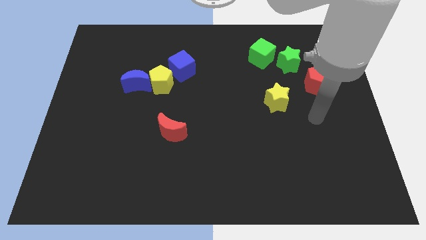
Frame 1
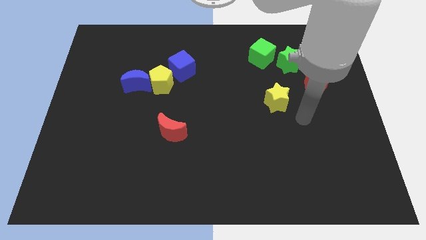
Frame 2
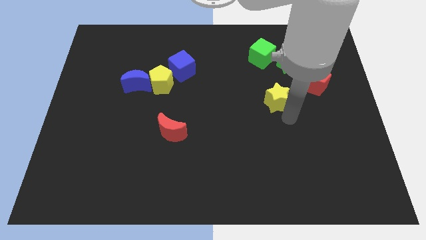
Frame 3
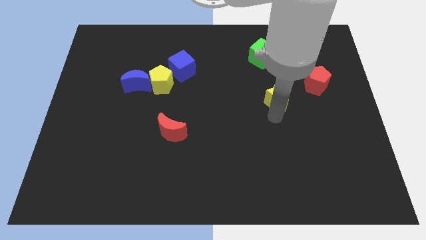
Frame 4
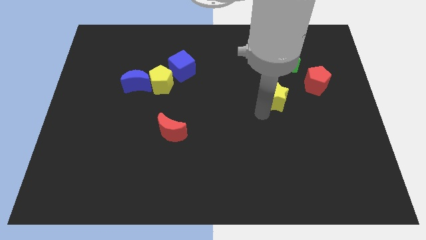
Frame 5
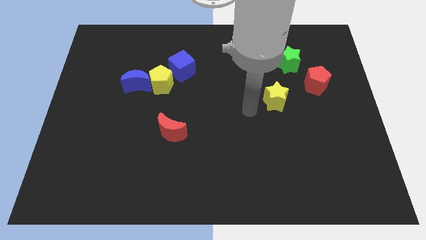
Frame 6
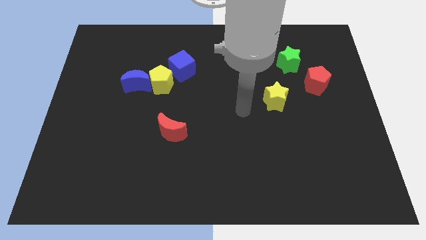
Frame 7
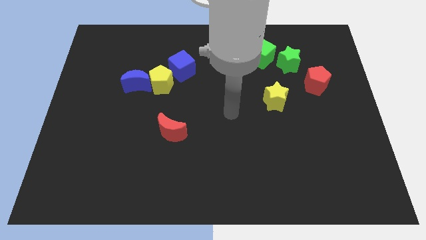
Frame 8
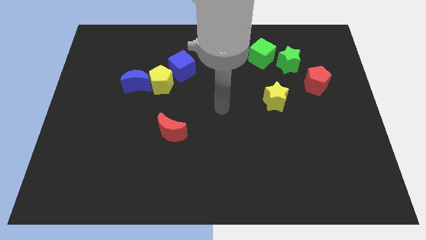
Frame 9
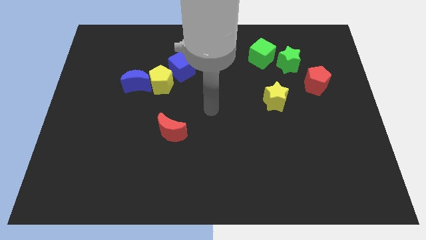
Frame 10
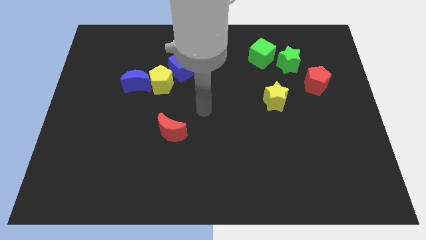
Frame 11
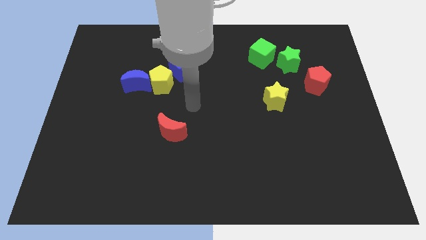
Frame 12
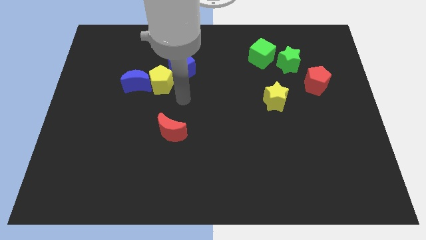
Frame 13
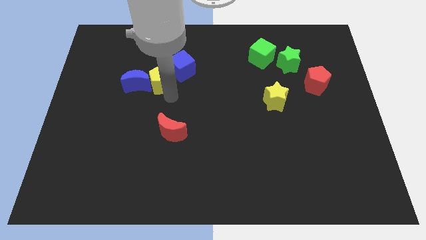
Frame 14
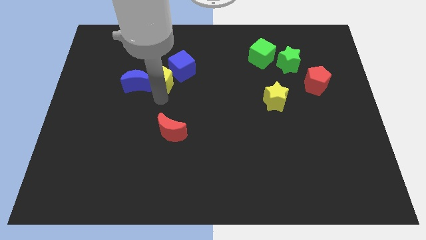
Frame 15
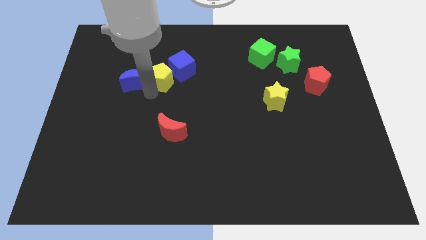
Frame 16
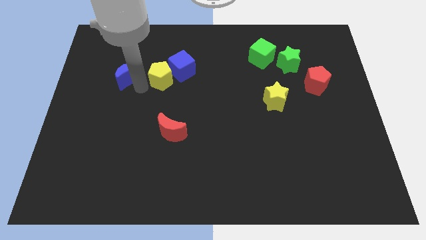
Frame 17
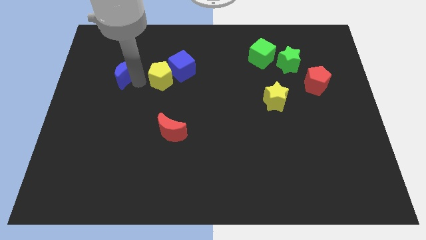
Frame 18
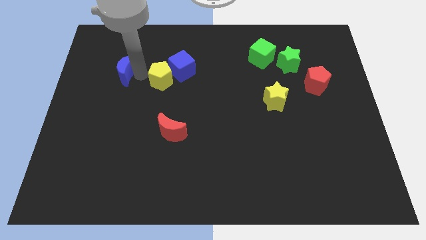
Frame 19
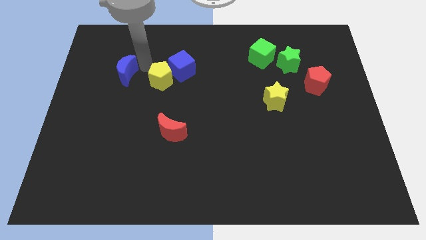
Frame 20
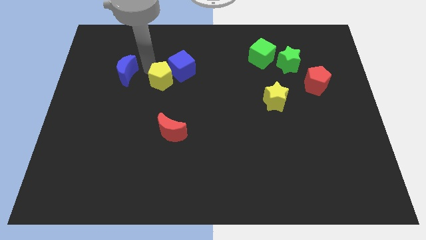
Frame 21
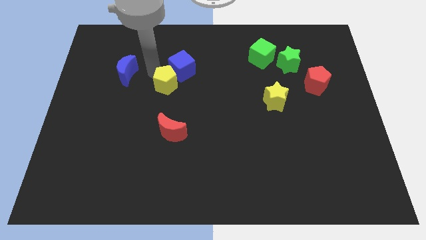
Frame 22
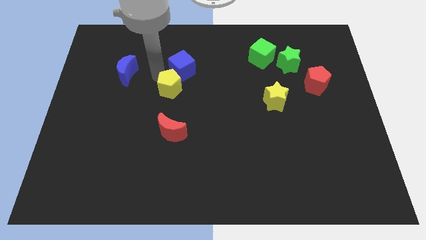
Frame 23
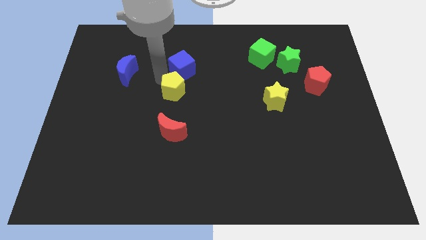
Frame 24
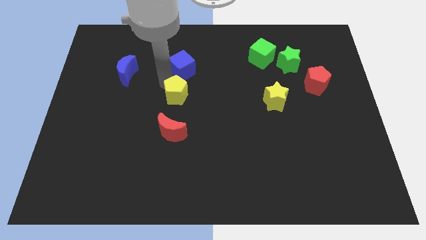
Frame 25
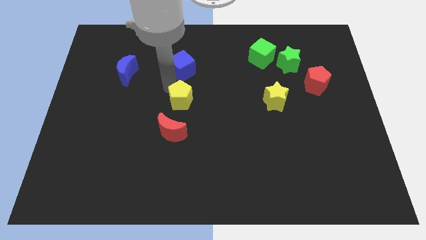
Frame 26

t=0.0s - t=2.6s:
slightly slide the yellow pentagon down and then to the right

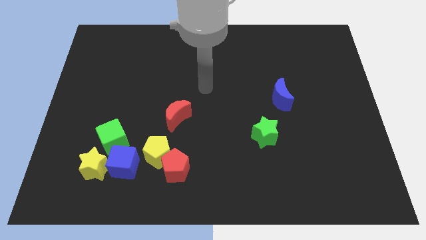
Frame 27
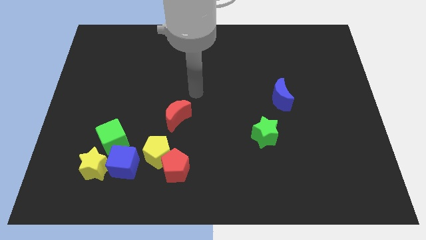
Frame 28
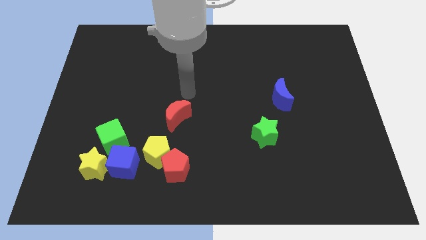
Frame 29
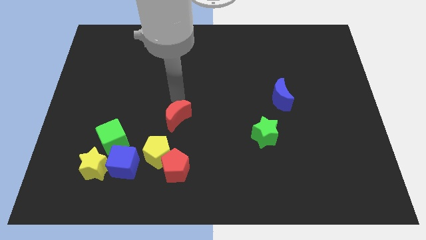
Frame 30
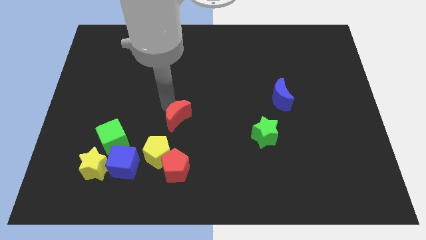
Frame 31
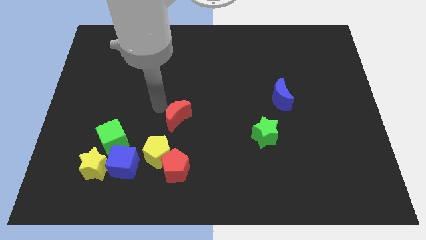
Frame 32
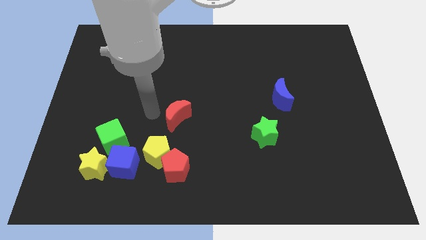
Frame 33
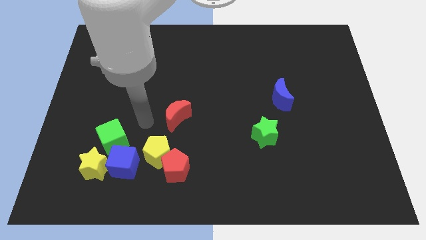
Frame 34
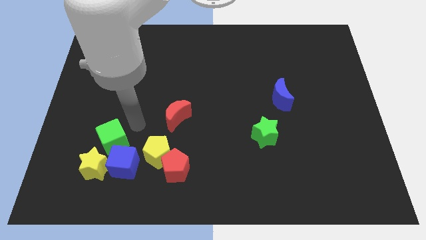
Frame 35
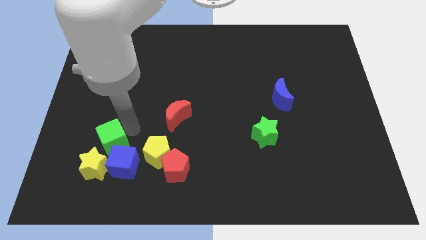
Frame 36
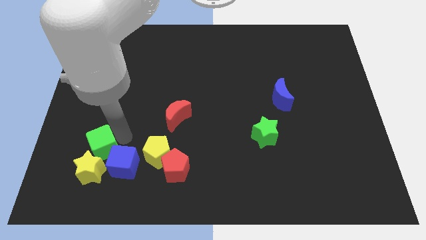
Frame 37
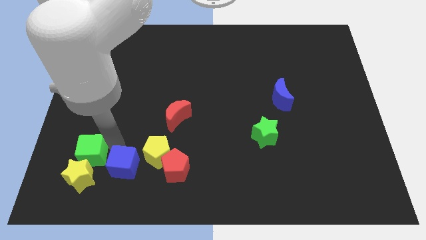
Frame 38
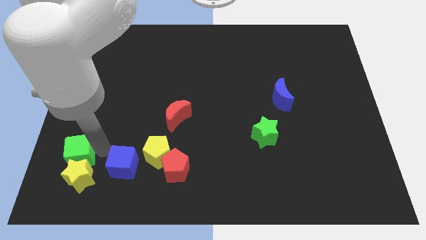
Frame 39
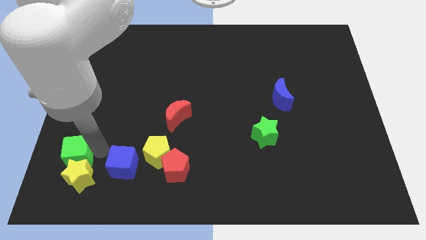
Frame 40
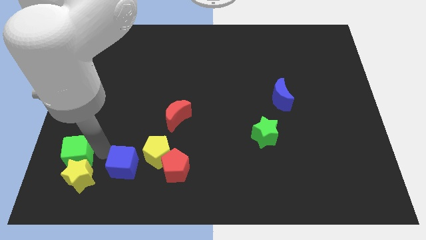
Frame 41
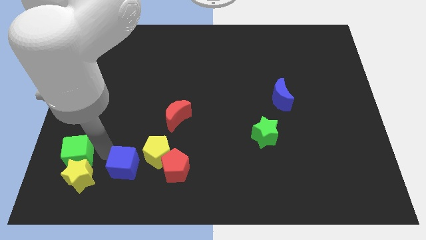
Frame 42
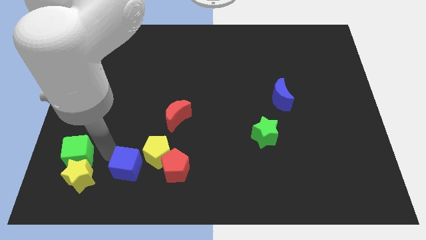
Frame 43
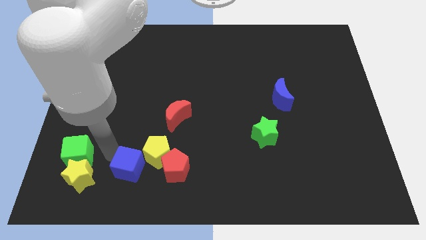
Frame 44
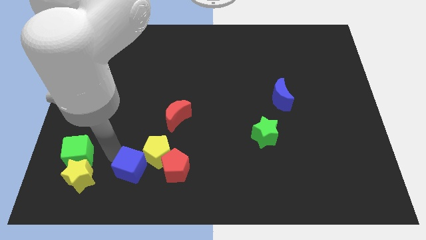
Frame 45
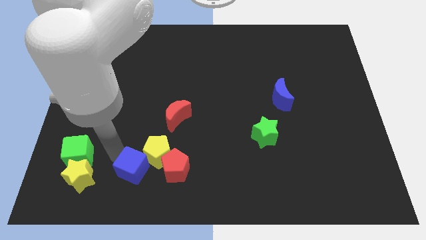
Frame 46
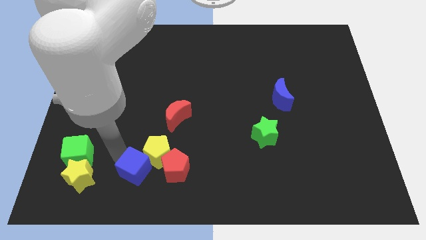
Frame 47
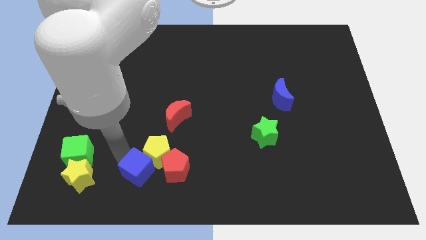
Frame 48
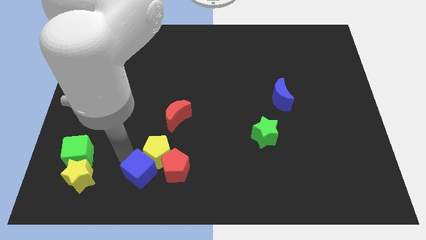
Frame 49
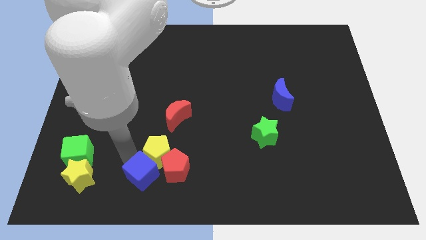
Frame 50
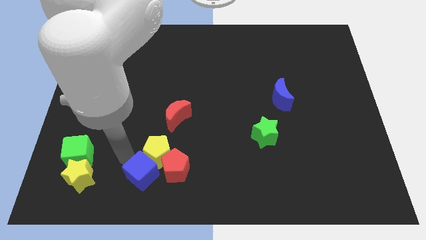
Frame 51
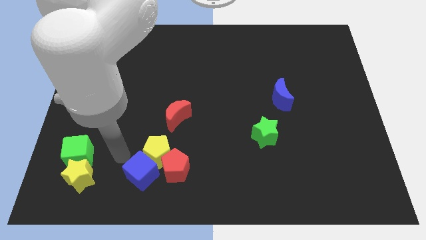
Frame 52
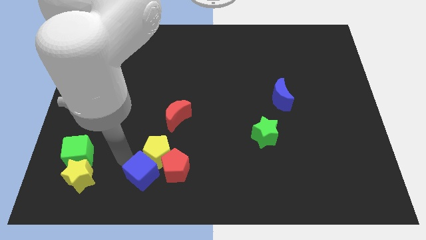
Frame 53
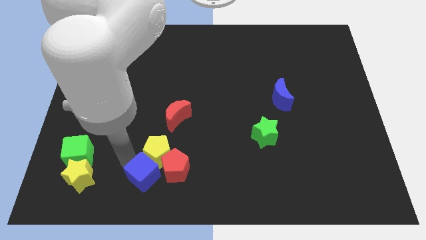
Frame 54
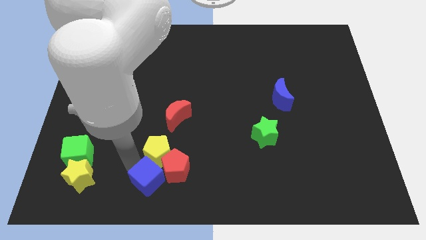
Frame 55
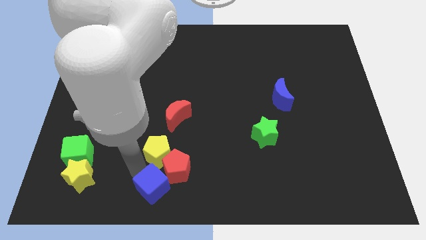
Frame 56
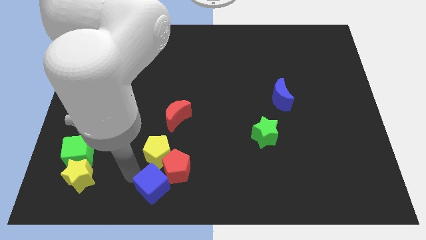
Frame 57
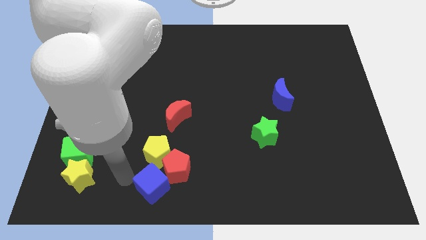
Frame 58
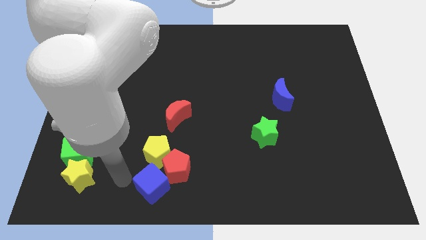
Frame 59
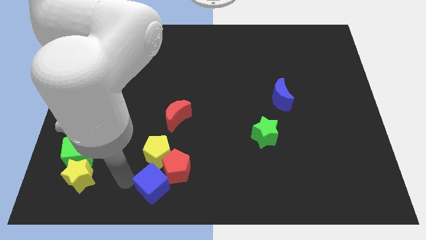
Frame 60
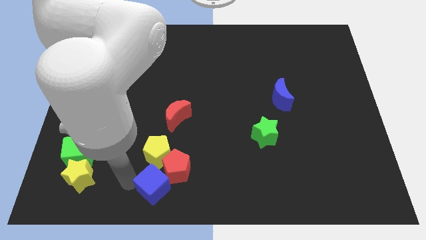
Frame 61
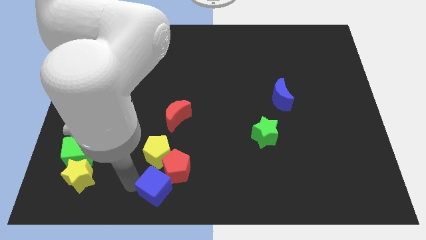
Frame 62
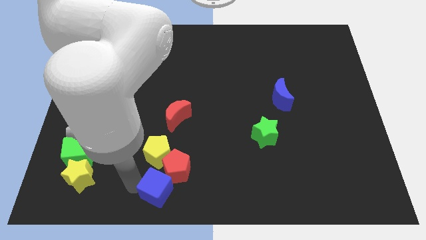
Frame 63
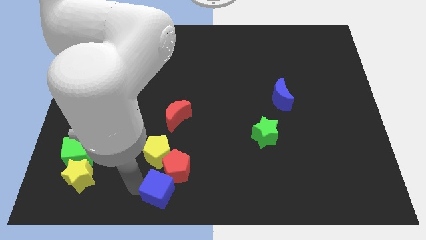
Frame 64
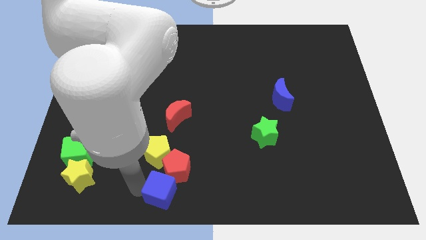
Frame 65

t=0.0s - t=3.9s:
slide the blue cube a bit to the right

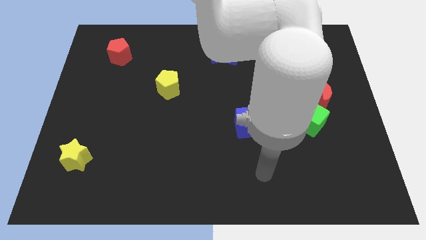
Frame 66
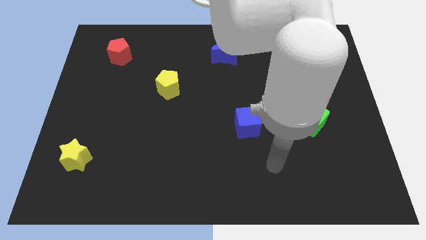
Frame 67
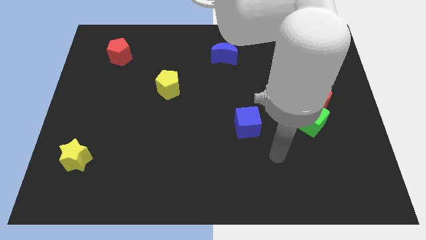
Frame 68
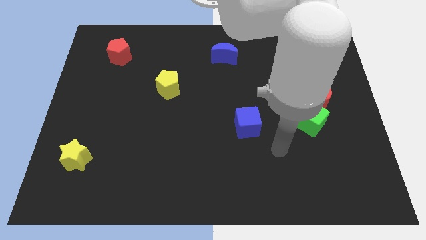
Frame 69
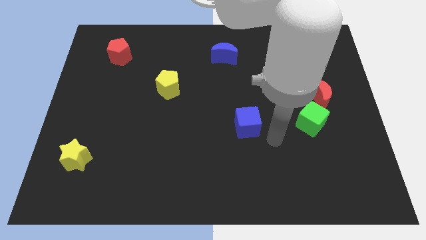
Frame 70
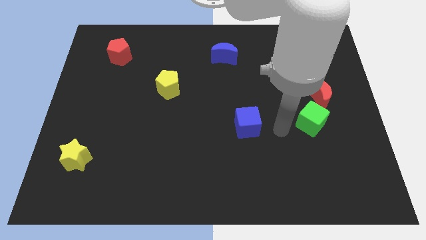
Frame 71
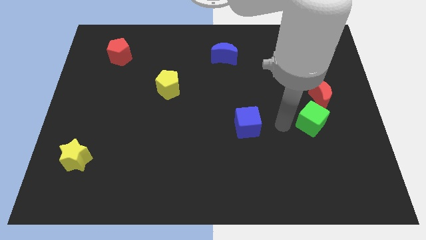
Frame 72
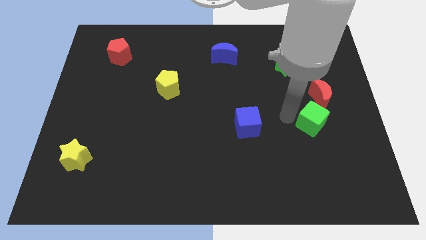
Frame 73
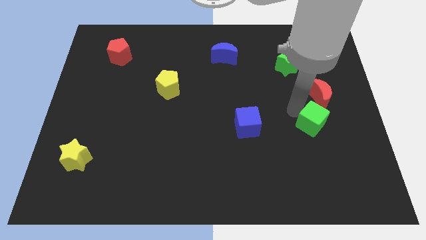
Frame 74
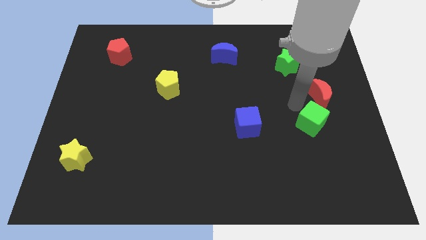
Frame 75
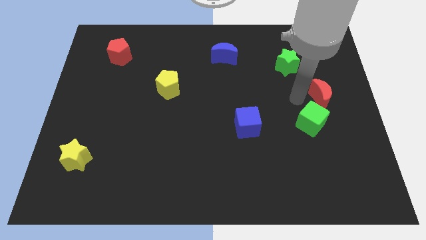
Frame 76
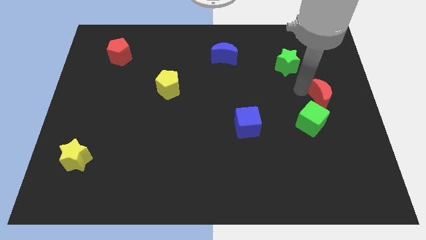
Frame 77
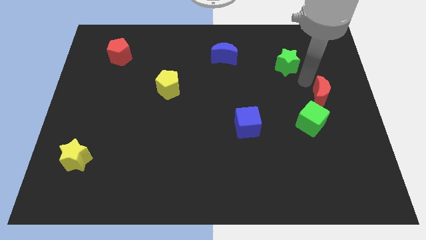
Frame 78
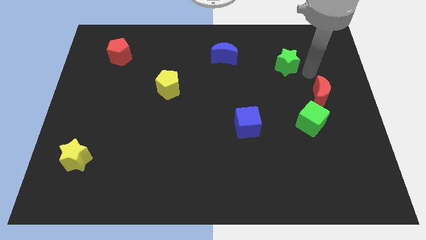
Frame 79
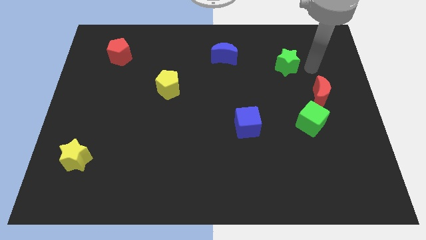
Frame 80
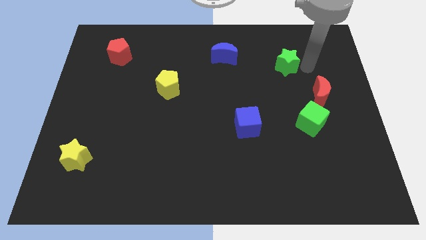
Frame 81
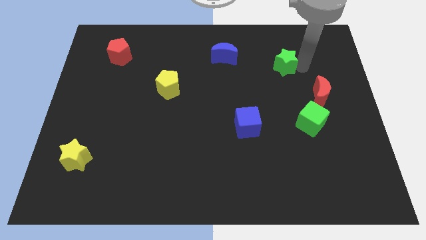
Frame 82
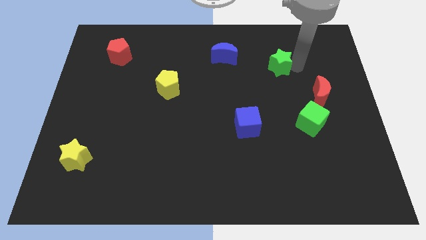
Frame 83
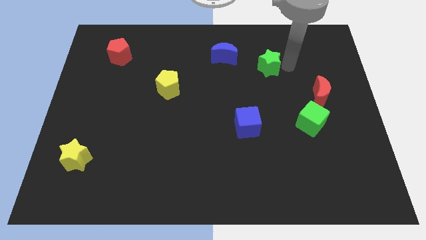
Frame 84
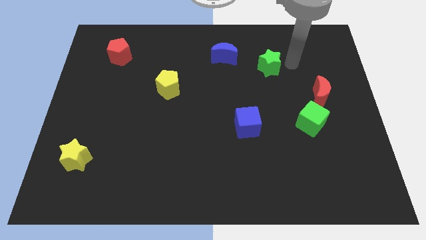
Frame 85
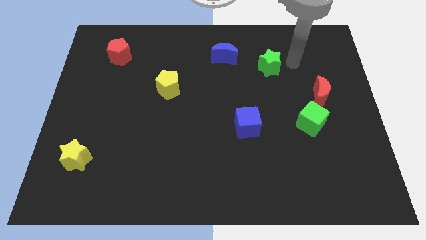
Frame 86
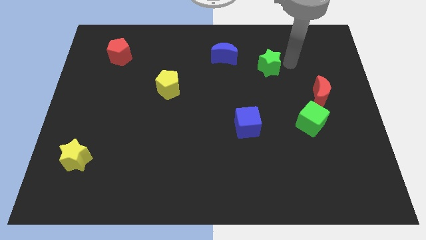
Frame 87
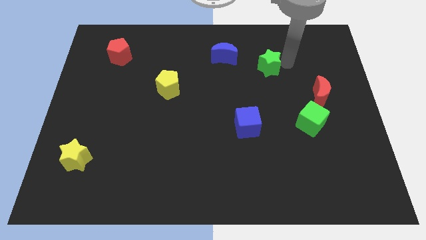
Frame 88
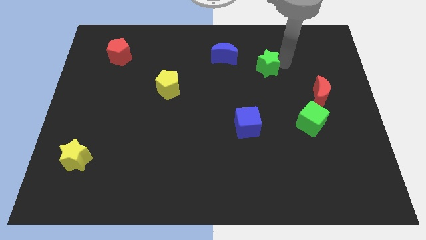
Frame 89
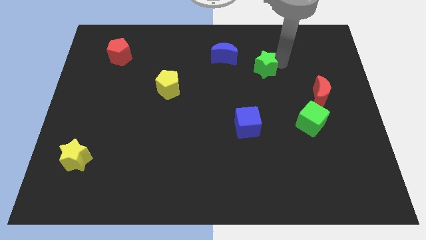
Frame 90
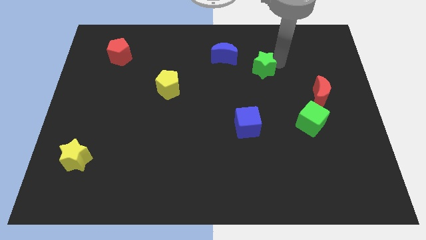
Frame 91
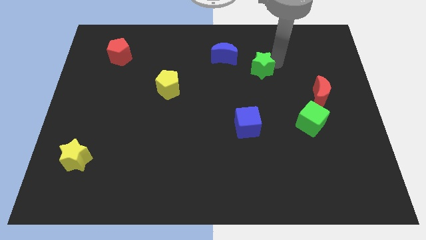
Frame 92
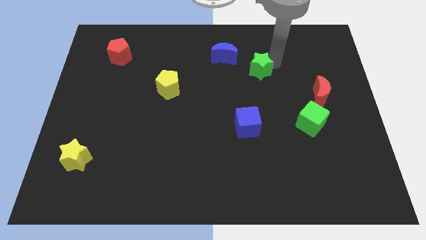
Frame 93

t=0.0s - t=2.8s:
slightly push the green star left
